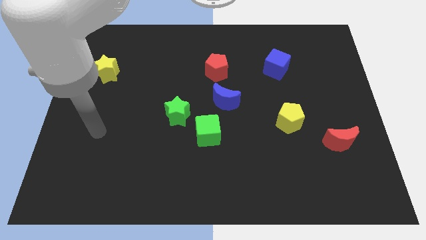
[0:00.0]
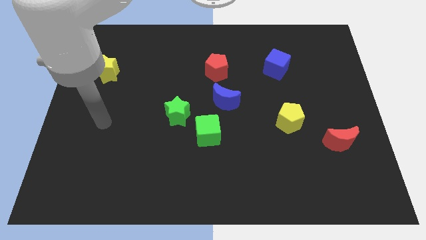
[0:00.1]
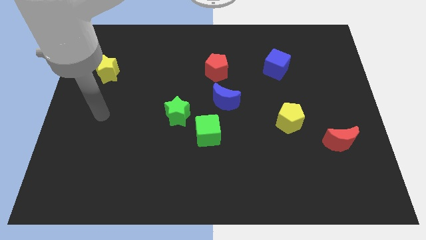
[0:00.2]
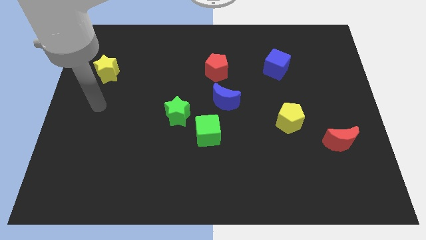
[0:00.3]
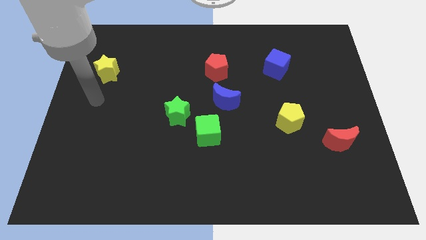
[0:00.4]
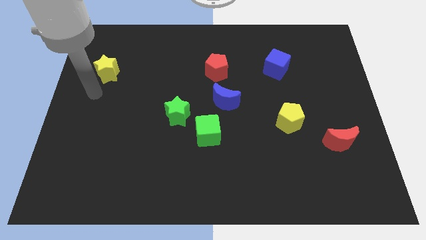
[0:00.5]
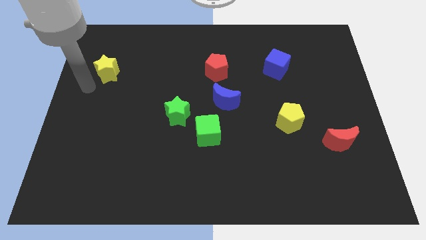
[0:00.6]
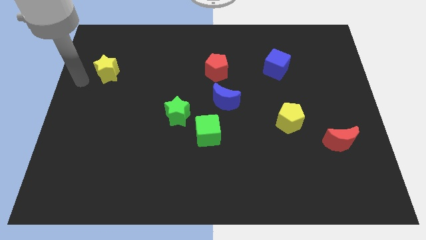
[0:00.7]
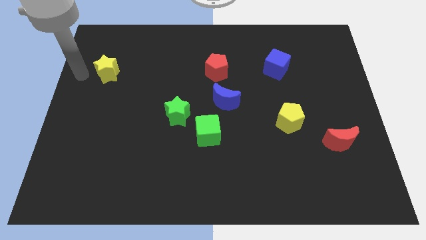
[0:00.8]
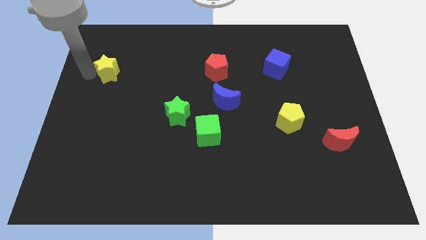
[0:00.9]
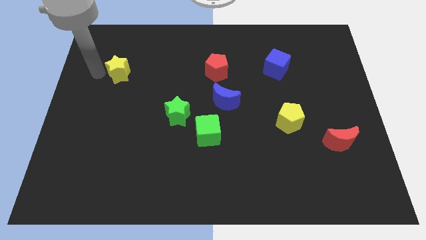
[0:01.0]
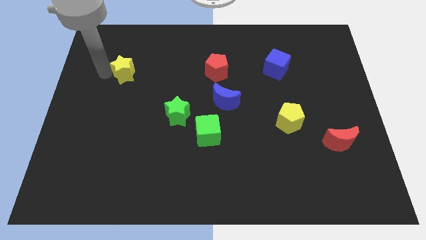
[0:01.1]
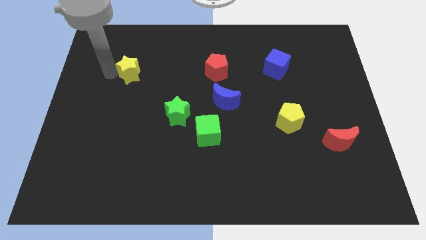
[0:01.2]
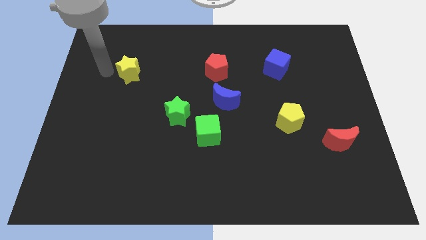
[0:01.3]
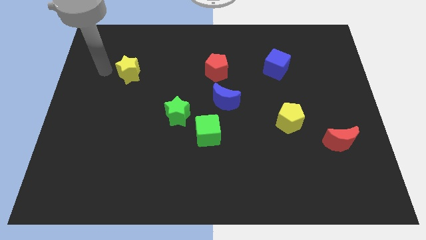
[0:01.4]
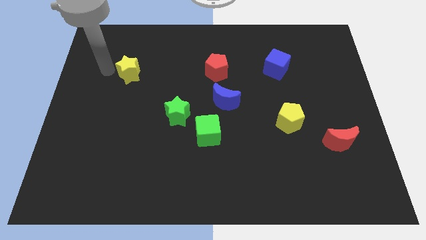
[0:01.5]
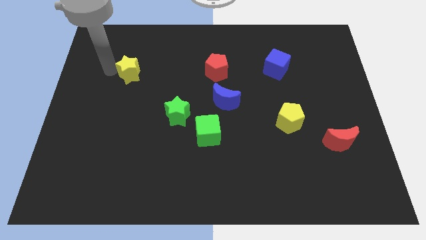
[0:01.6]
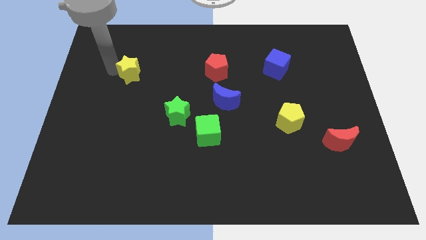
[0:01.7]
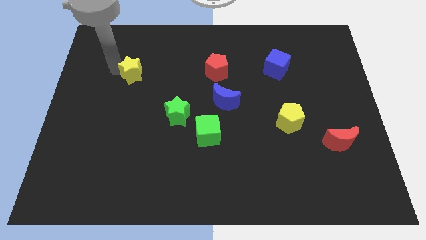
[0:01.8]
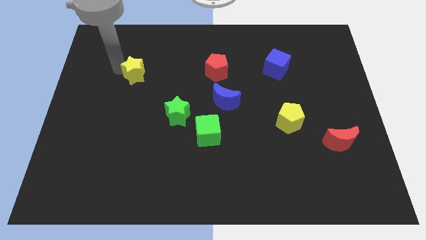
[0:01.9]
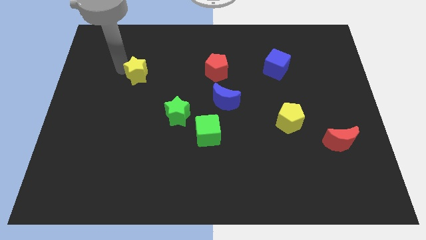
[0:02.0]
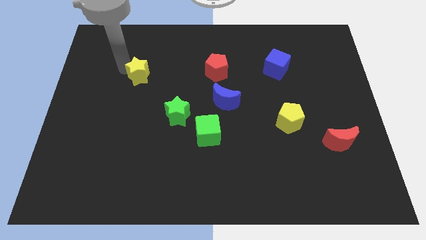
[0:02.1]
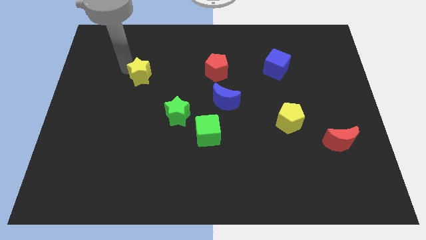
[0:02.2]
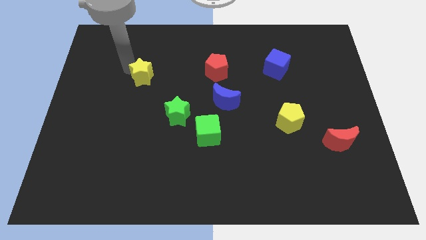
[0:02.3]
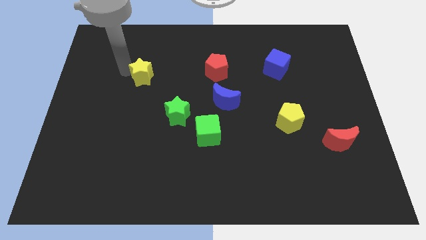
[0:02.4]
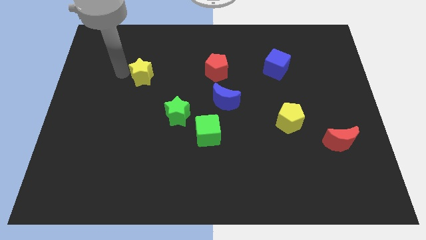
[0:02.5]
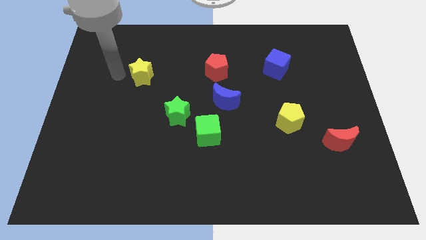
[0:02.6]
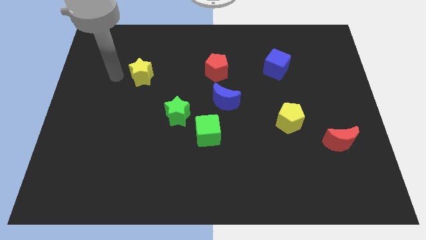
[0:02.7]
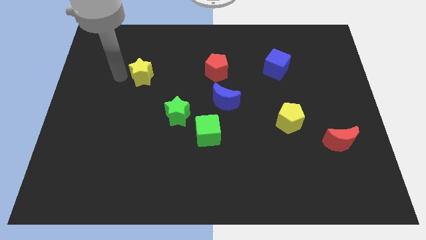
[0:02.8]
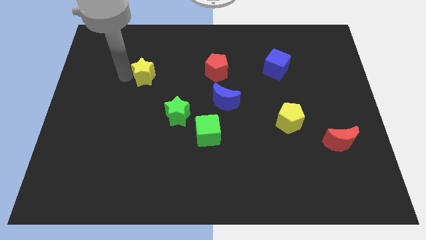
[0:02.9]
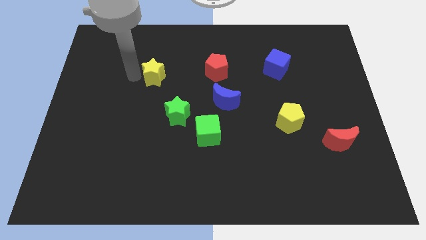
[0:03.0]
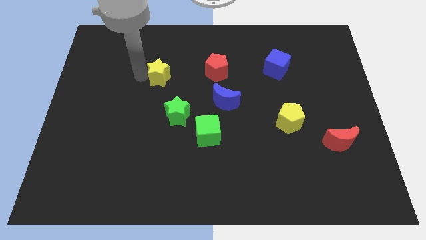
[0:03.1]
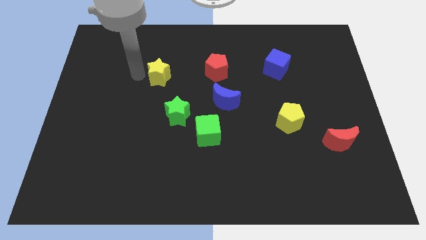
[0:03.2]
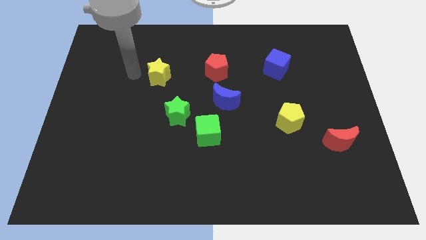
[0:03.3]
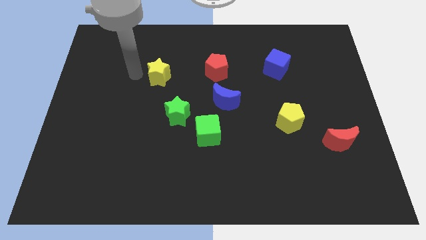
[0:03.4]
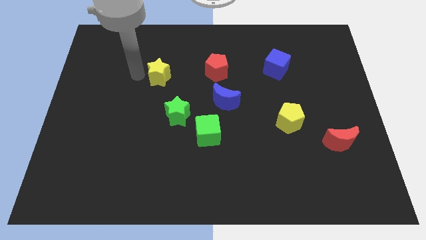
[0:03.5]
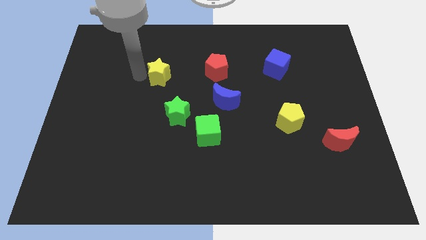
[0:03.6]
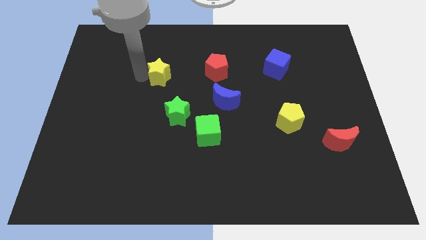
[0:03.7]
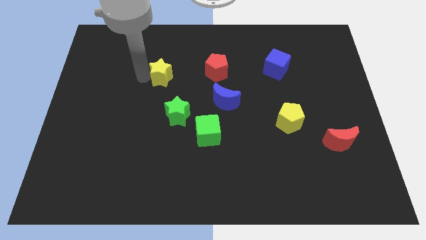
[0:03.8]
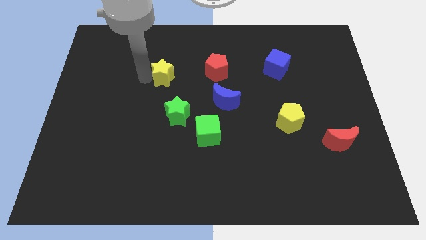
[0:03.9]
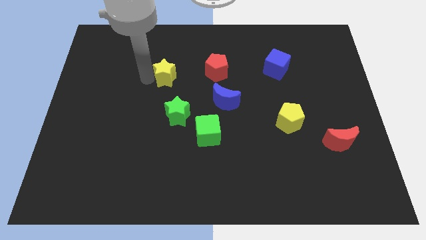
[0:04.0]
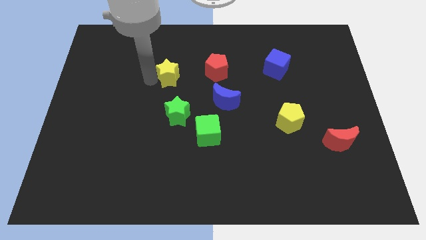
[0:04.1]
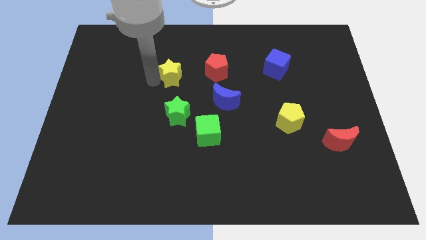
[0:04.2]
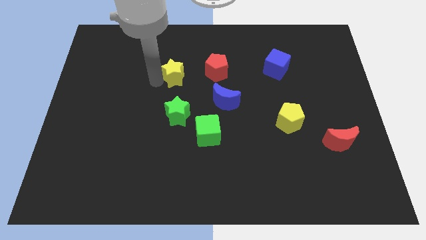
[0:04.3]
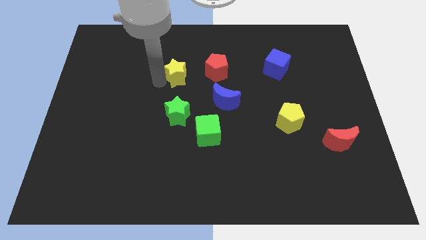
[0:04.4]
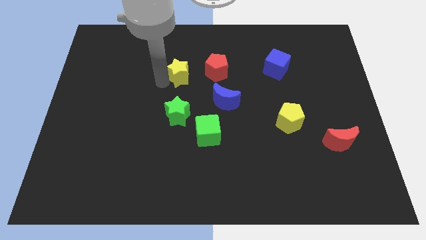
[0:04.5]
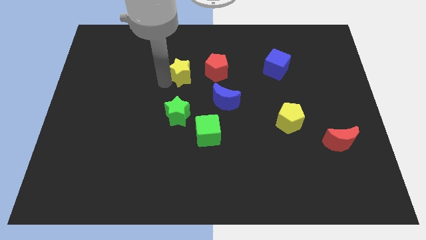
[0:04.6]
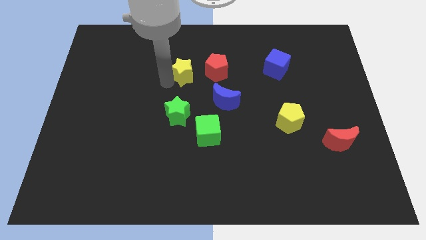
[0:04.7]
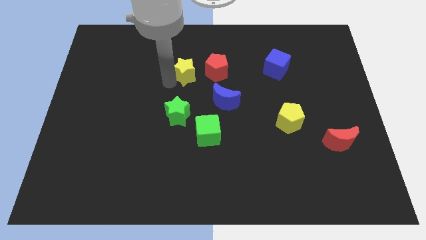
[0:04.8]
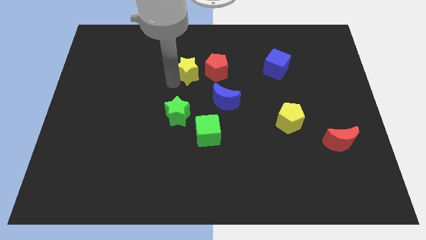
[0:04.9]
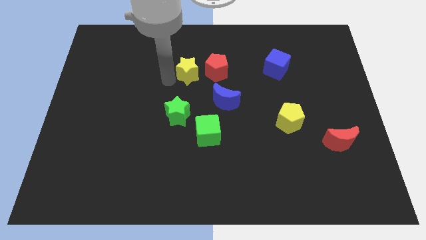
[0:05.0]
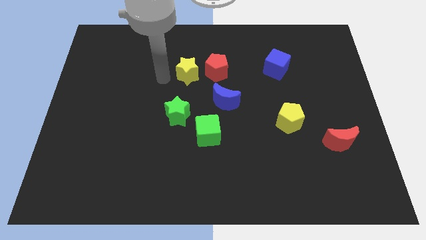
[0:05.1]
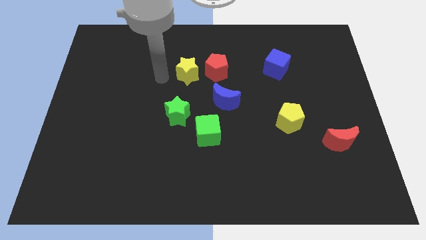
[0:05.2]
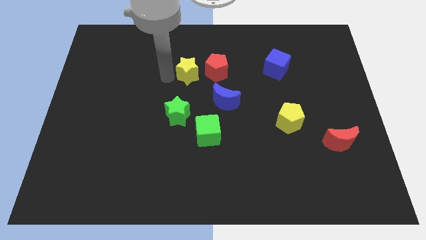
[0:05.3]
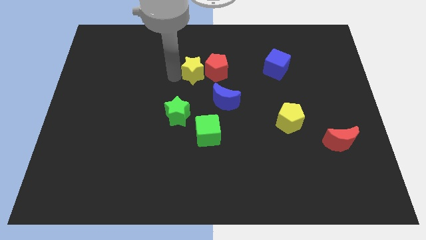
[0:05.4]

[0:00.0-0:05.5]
slide the yellow star towards the red pentagon

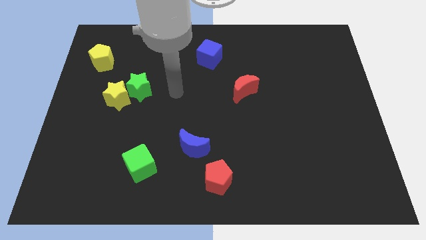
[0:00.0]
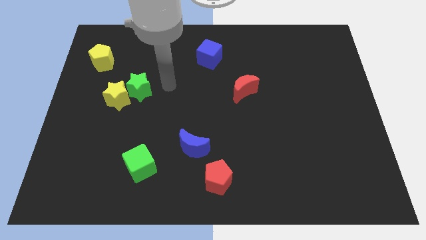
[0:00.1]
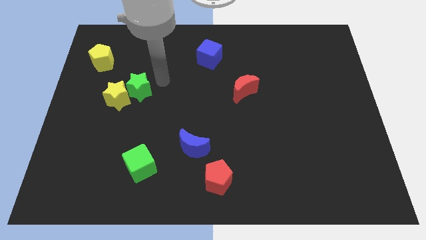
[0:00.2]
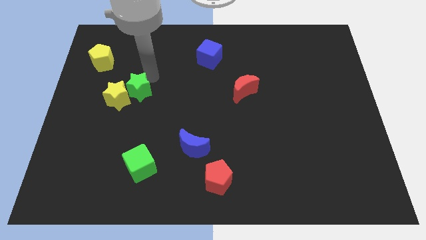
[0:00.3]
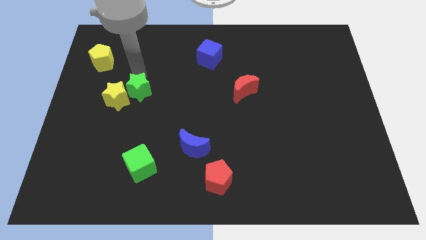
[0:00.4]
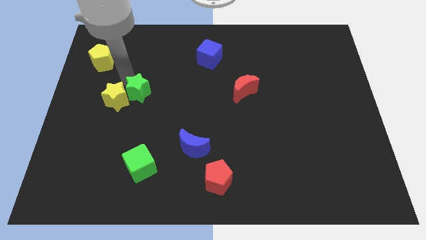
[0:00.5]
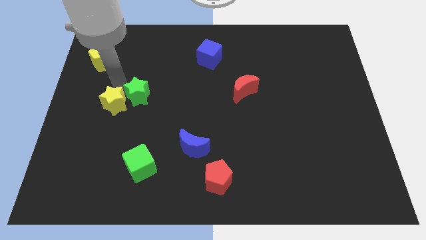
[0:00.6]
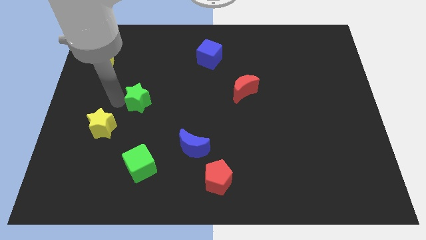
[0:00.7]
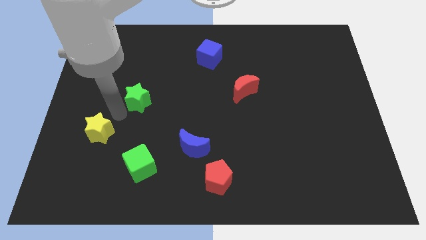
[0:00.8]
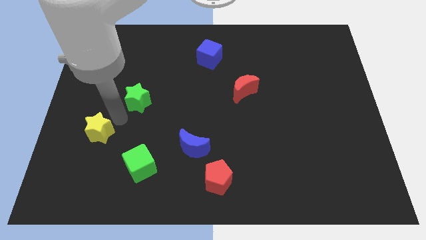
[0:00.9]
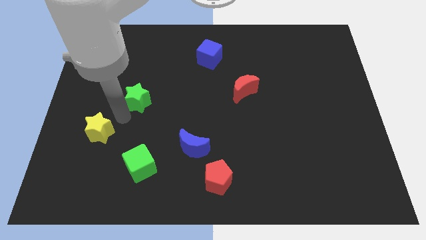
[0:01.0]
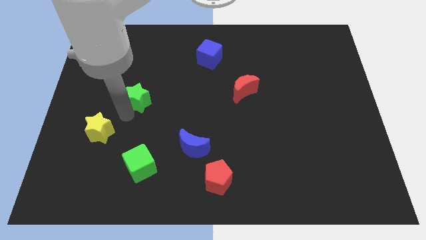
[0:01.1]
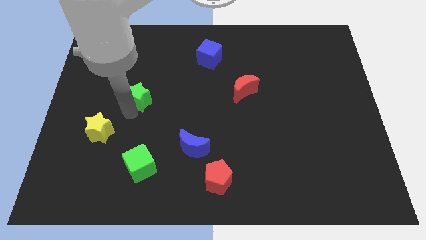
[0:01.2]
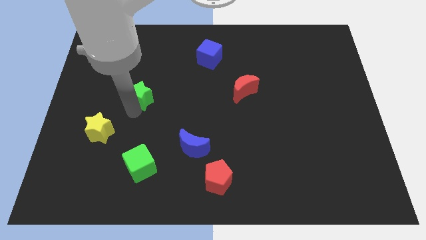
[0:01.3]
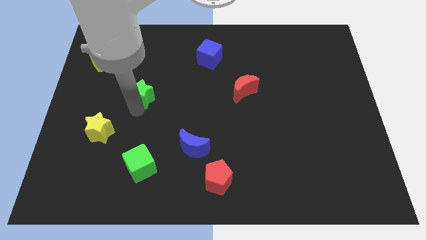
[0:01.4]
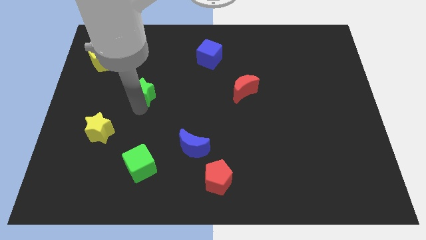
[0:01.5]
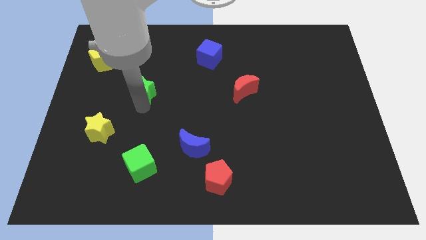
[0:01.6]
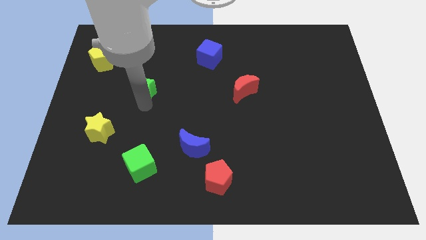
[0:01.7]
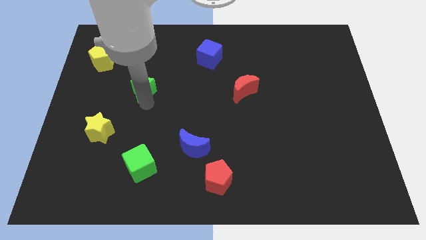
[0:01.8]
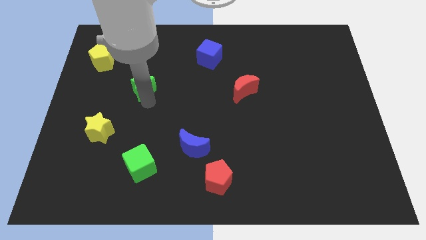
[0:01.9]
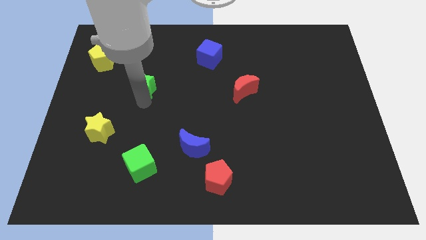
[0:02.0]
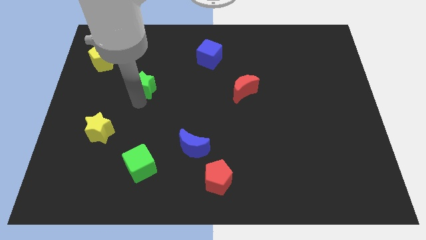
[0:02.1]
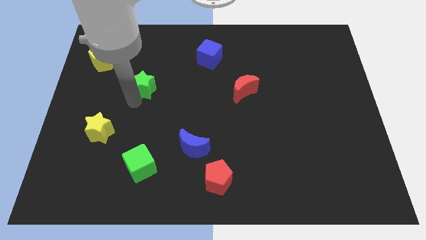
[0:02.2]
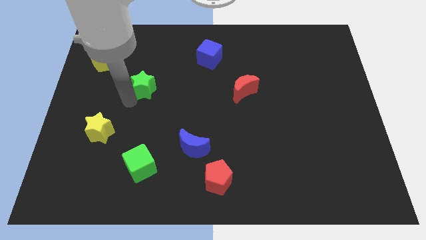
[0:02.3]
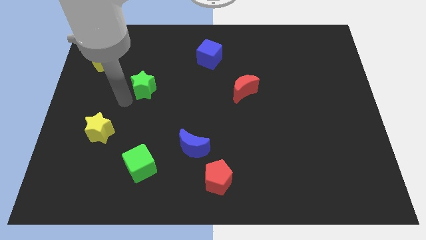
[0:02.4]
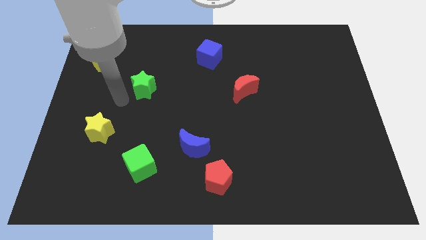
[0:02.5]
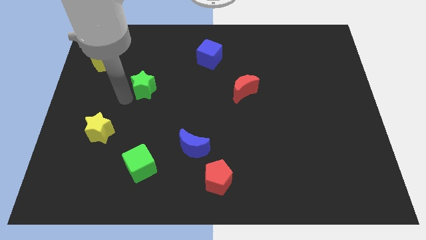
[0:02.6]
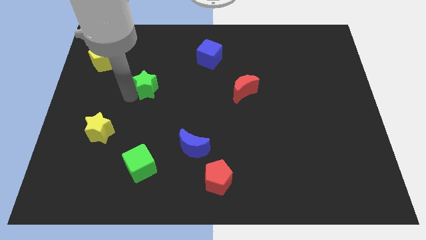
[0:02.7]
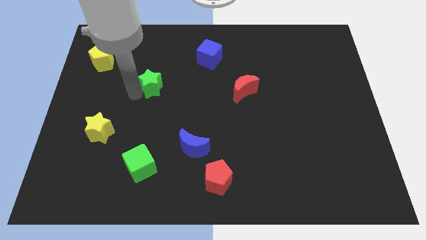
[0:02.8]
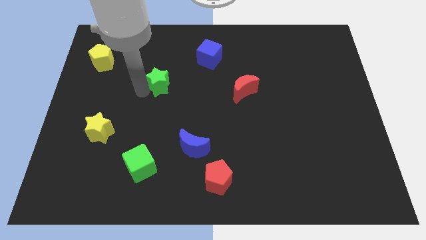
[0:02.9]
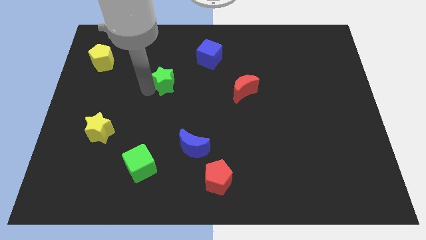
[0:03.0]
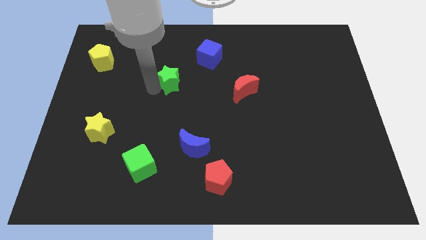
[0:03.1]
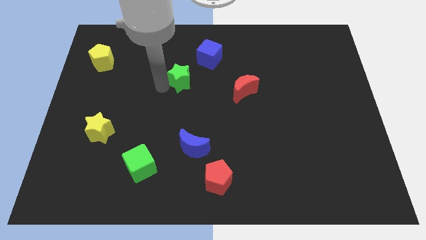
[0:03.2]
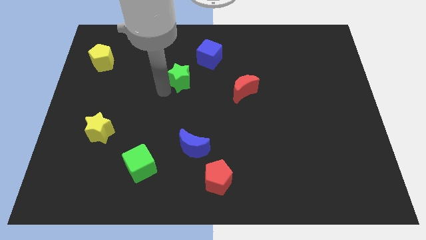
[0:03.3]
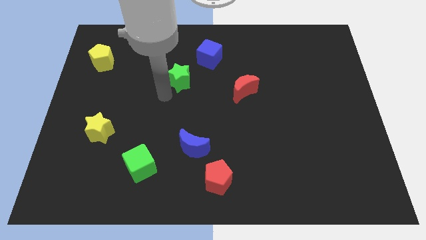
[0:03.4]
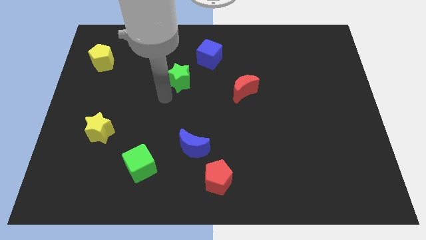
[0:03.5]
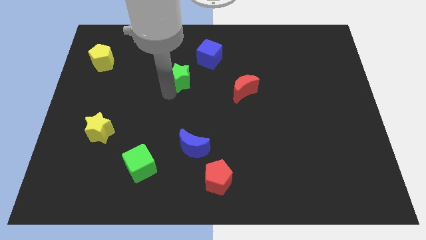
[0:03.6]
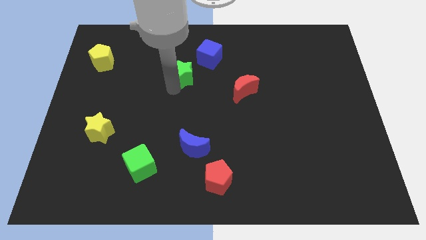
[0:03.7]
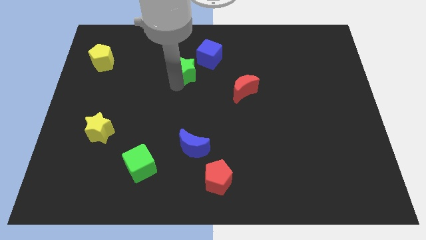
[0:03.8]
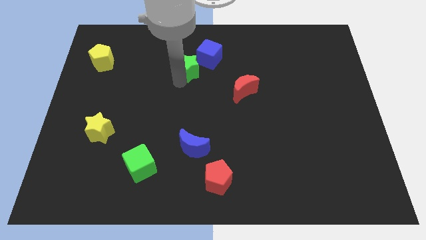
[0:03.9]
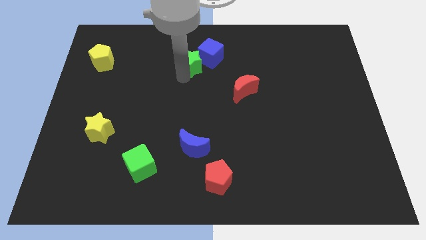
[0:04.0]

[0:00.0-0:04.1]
put the green star to the blue cube
